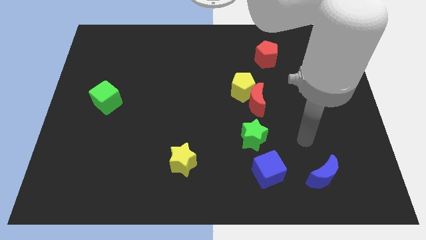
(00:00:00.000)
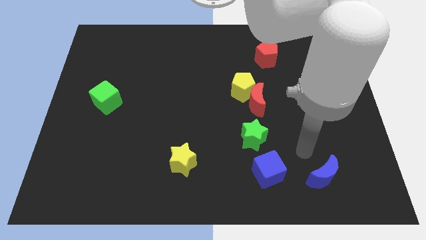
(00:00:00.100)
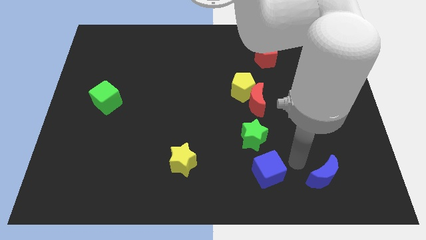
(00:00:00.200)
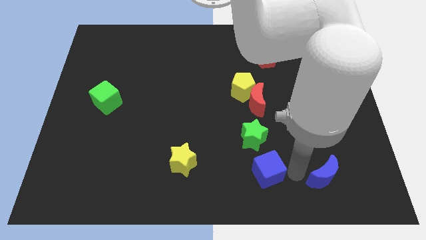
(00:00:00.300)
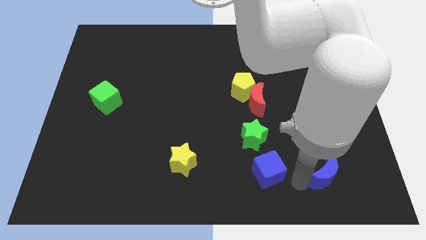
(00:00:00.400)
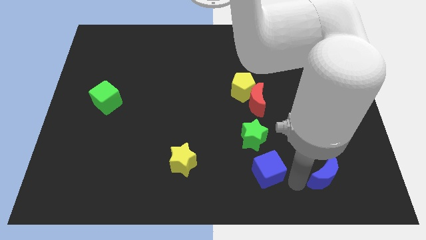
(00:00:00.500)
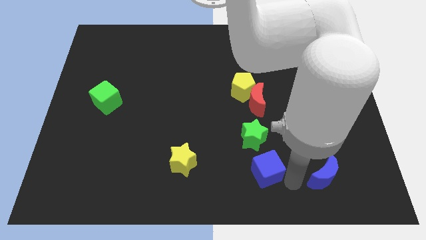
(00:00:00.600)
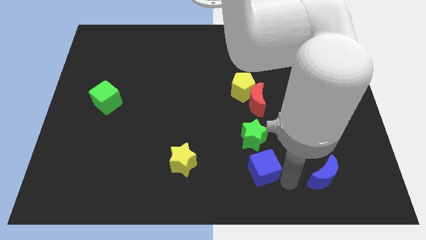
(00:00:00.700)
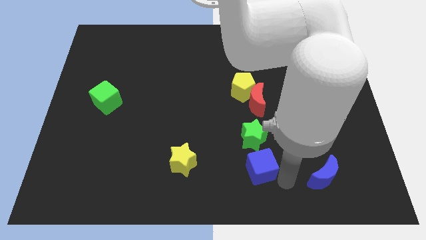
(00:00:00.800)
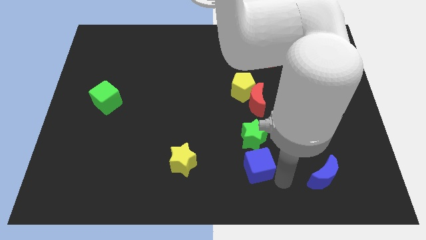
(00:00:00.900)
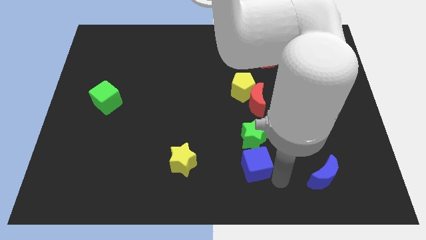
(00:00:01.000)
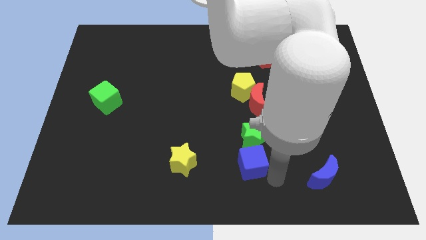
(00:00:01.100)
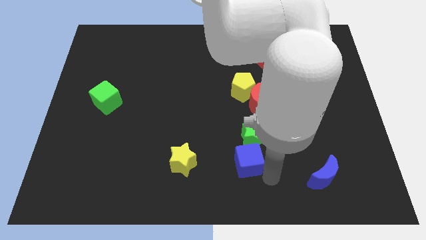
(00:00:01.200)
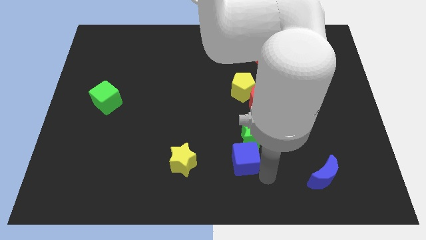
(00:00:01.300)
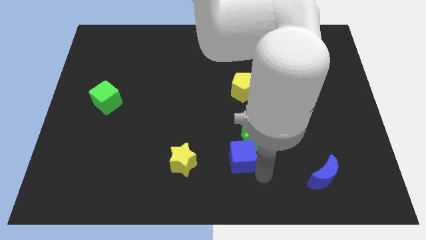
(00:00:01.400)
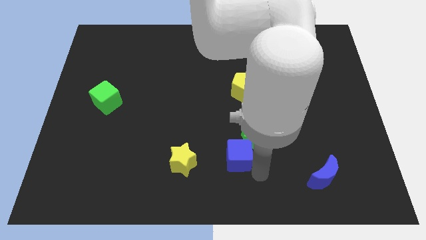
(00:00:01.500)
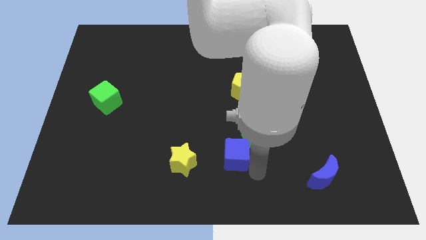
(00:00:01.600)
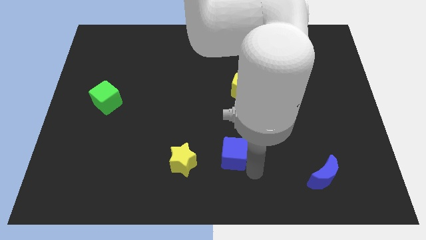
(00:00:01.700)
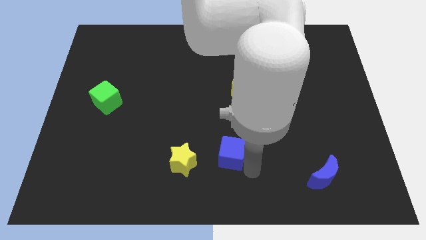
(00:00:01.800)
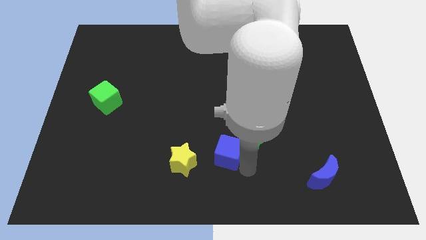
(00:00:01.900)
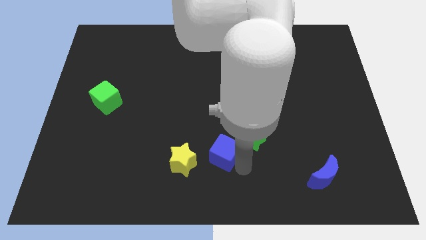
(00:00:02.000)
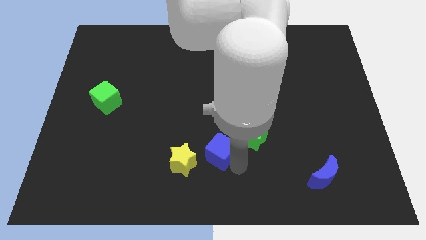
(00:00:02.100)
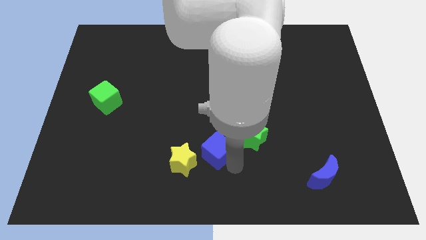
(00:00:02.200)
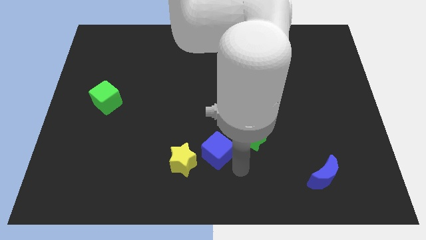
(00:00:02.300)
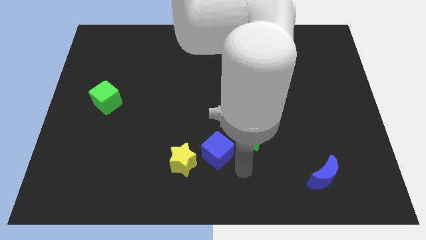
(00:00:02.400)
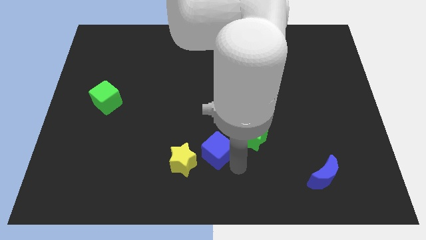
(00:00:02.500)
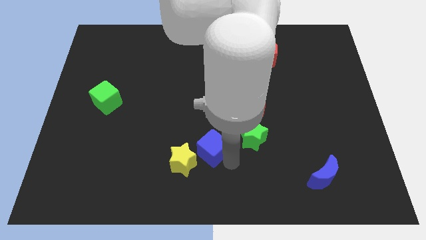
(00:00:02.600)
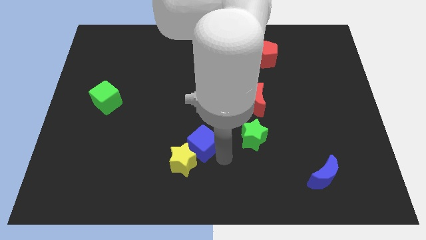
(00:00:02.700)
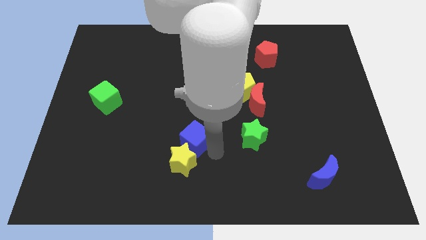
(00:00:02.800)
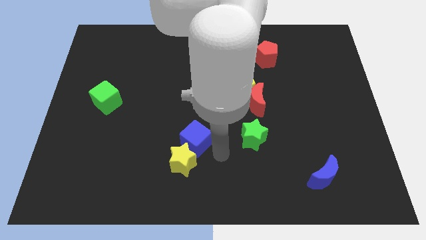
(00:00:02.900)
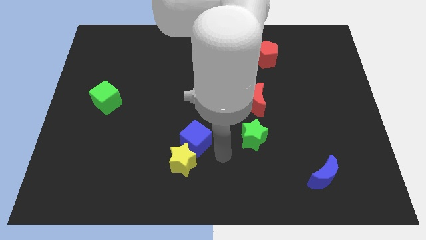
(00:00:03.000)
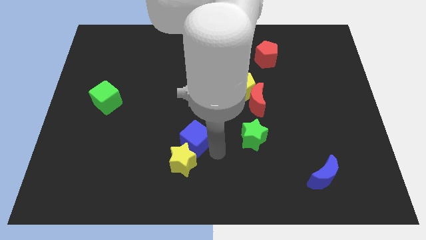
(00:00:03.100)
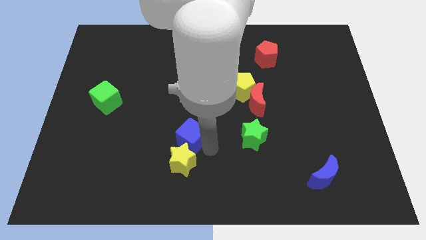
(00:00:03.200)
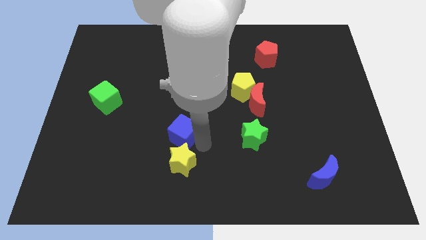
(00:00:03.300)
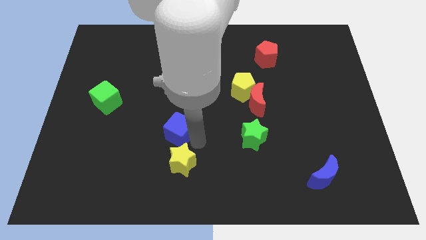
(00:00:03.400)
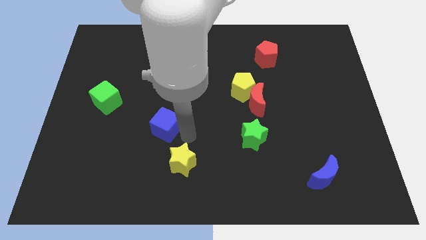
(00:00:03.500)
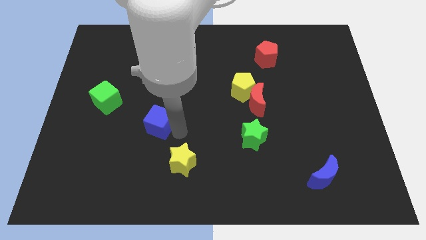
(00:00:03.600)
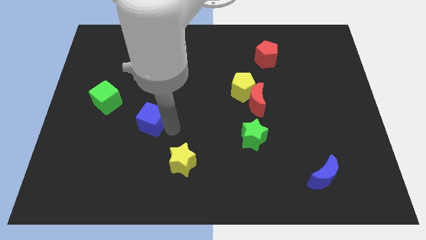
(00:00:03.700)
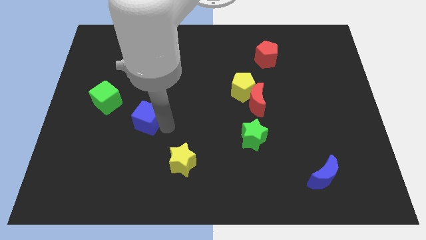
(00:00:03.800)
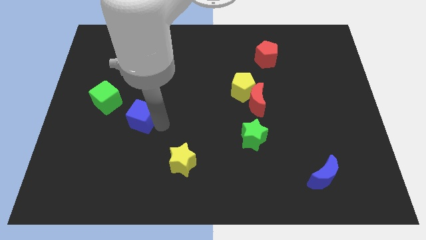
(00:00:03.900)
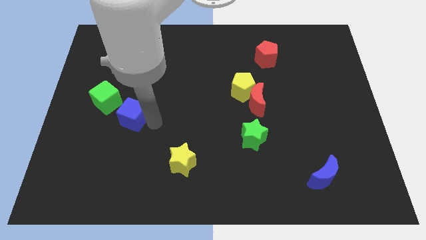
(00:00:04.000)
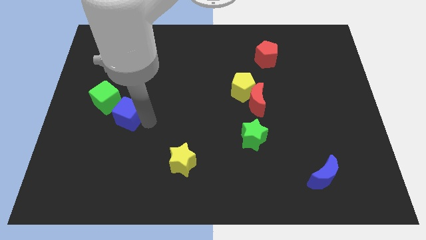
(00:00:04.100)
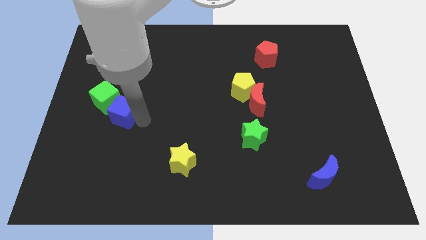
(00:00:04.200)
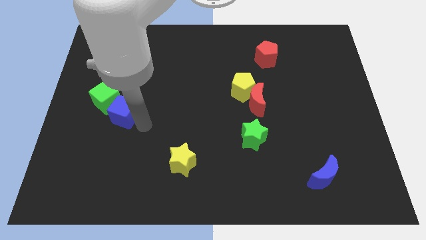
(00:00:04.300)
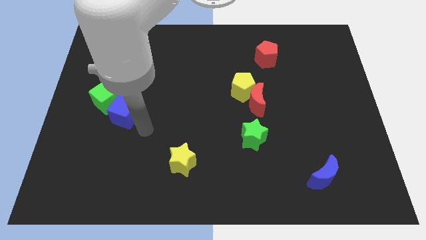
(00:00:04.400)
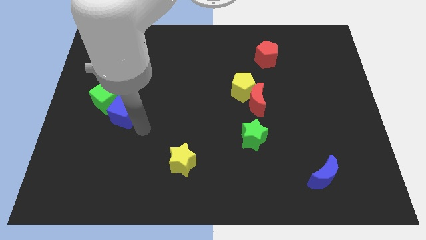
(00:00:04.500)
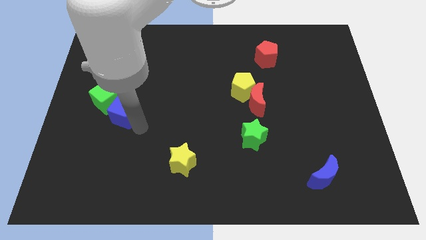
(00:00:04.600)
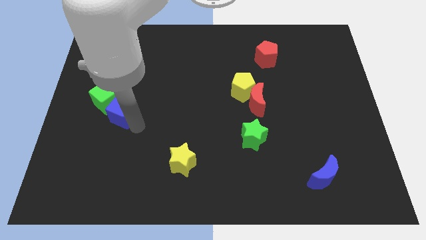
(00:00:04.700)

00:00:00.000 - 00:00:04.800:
push the blue cube close to the green cube

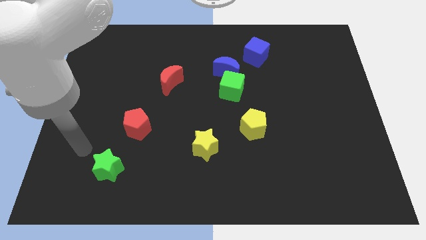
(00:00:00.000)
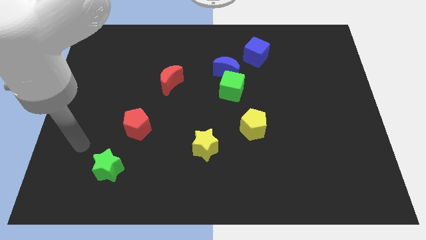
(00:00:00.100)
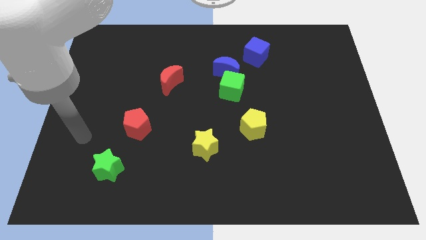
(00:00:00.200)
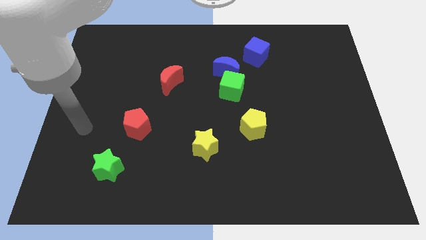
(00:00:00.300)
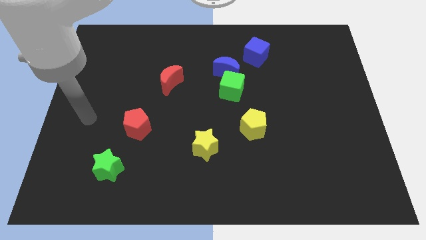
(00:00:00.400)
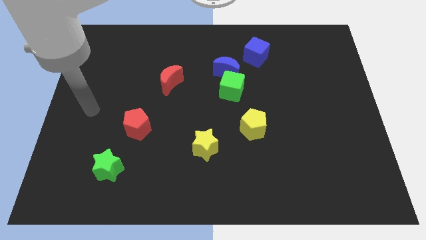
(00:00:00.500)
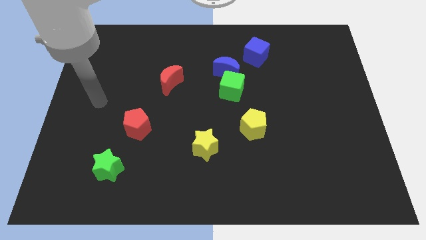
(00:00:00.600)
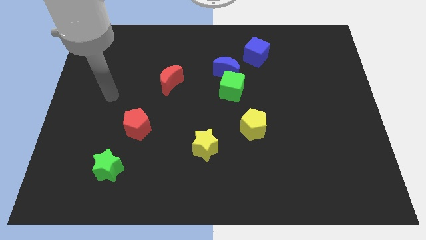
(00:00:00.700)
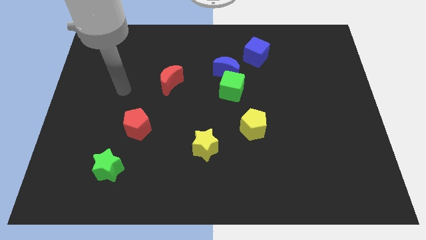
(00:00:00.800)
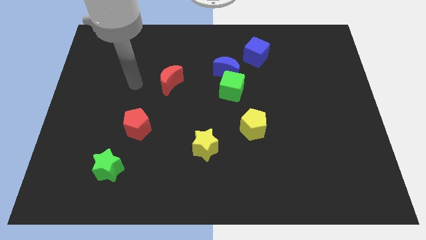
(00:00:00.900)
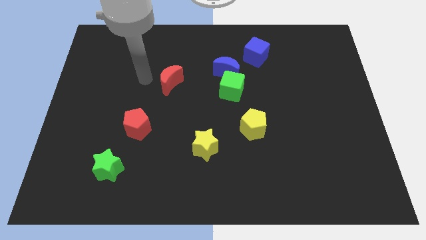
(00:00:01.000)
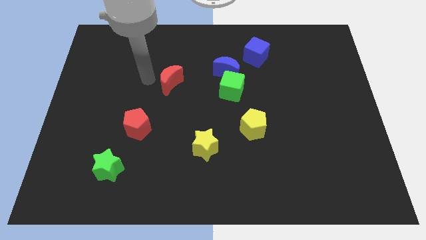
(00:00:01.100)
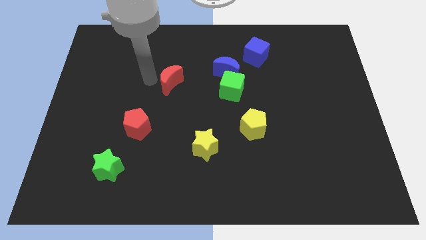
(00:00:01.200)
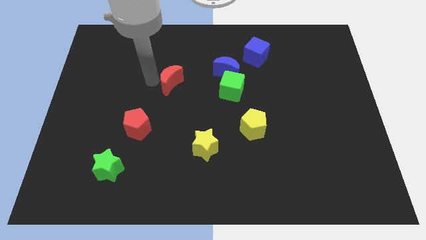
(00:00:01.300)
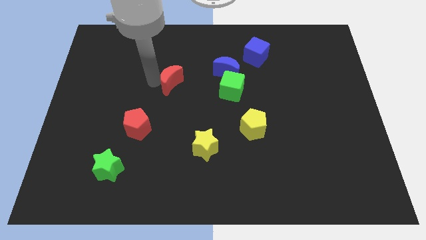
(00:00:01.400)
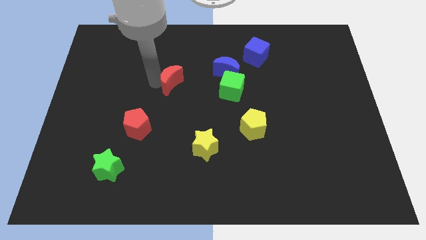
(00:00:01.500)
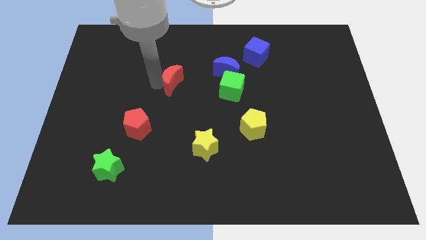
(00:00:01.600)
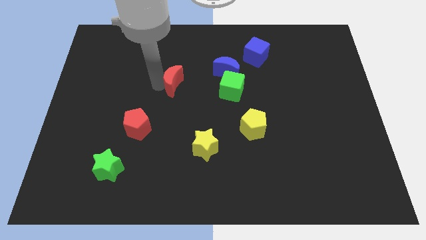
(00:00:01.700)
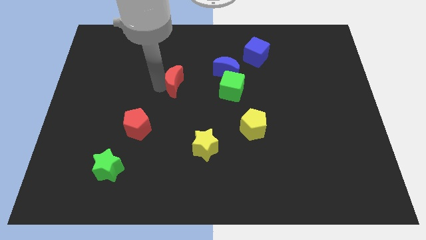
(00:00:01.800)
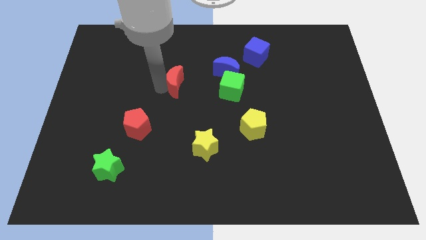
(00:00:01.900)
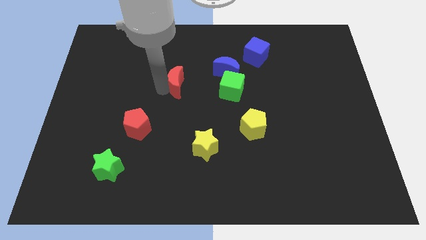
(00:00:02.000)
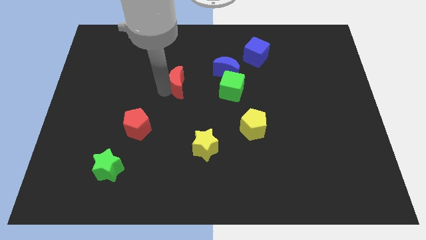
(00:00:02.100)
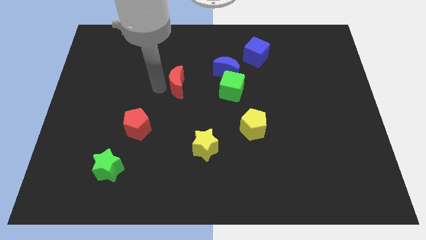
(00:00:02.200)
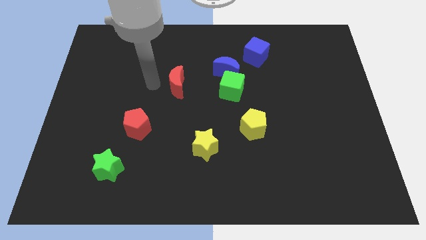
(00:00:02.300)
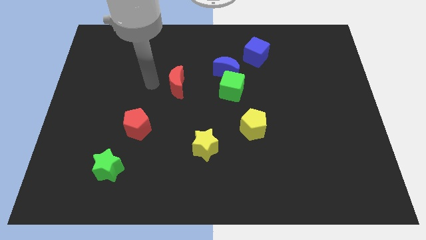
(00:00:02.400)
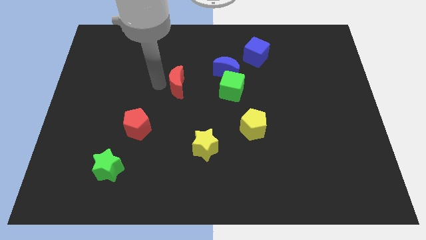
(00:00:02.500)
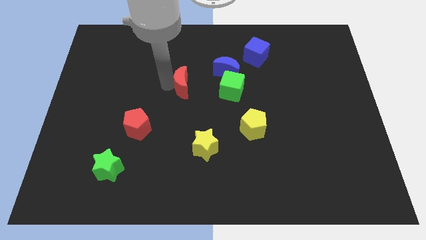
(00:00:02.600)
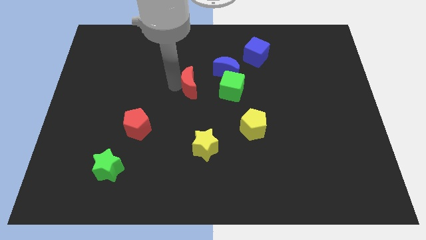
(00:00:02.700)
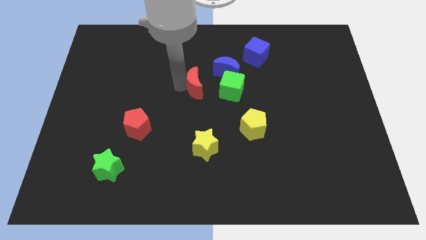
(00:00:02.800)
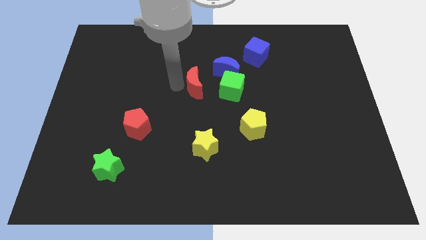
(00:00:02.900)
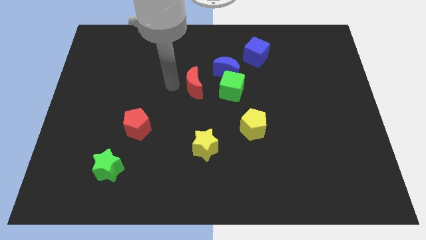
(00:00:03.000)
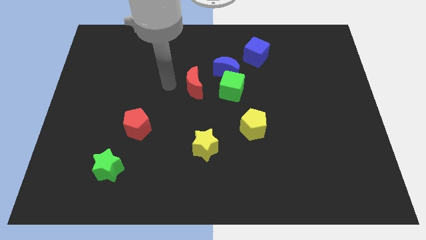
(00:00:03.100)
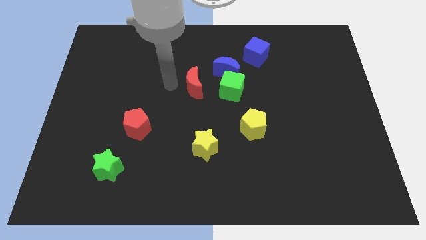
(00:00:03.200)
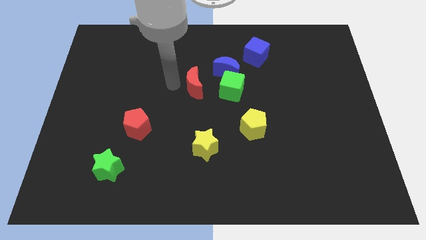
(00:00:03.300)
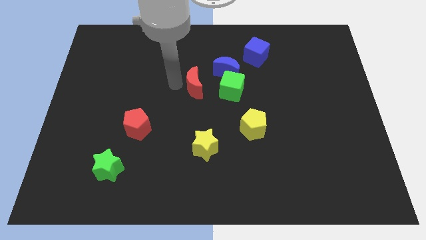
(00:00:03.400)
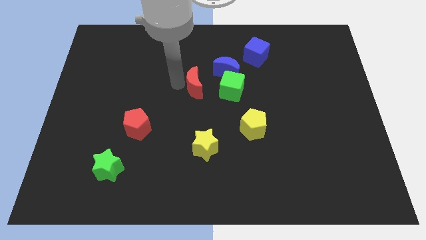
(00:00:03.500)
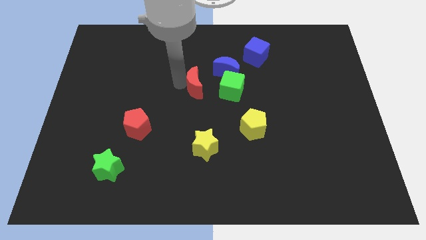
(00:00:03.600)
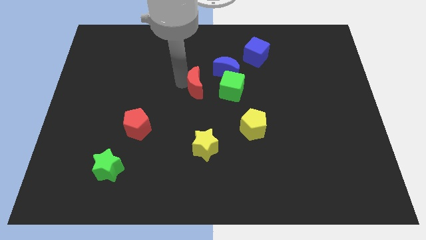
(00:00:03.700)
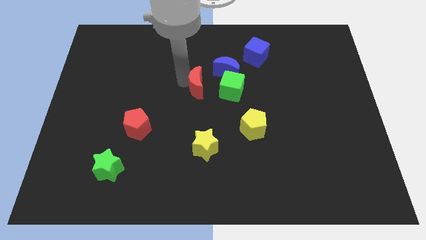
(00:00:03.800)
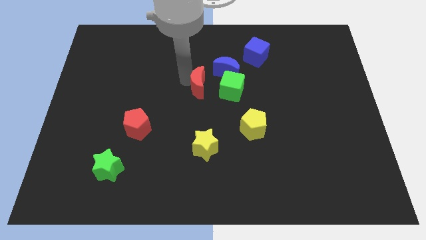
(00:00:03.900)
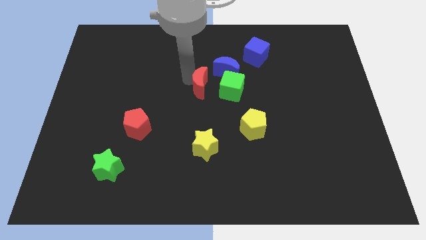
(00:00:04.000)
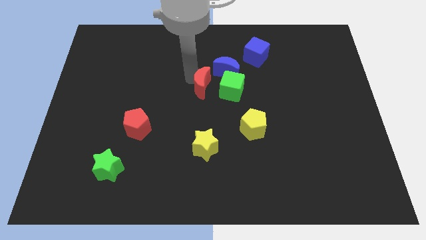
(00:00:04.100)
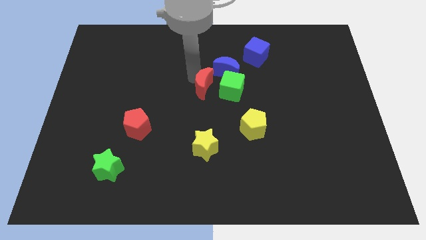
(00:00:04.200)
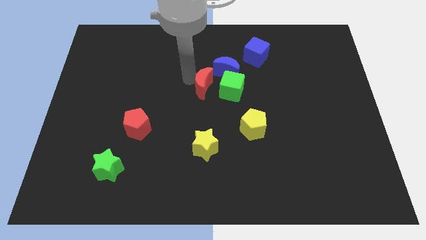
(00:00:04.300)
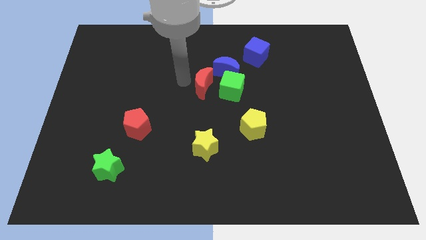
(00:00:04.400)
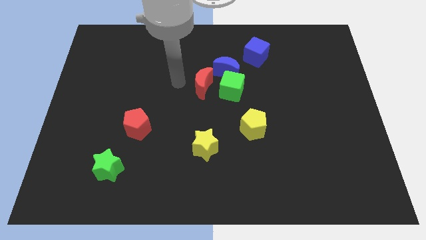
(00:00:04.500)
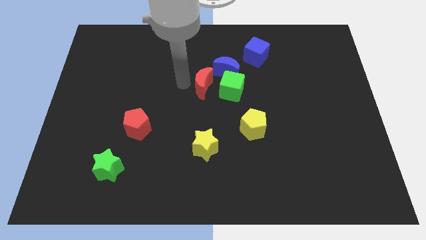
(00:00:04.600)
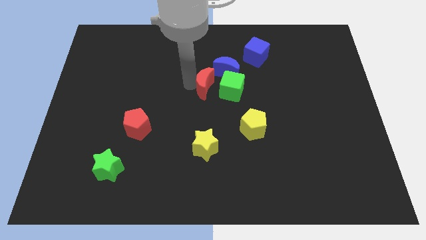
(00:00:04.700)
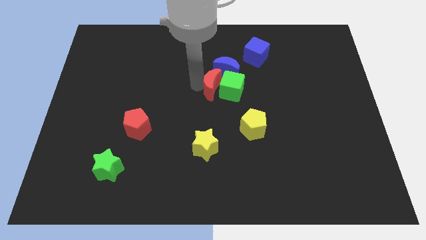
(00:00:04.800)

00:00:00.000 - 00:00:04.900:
push the red moon to the green cube
